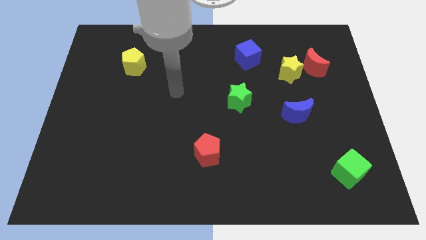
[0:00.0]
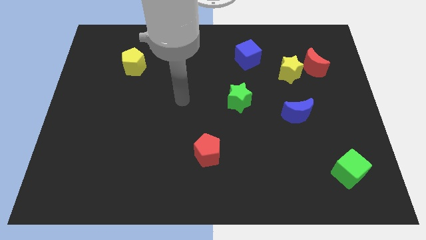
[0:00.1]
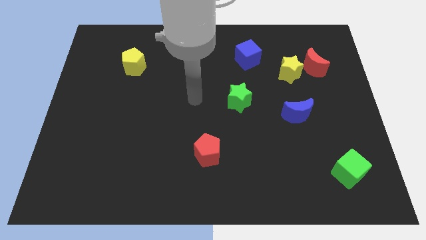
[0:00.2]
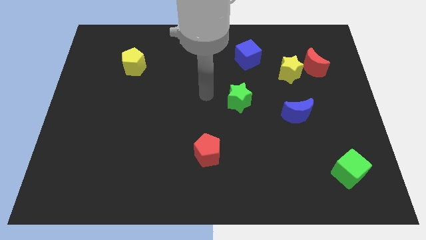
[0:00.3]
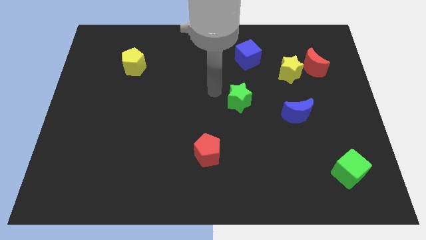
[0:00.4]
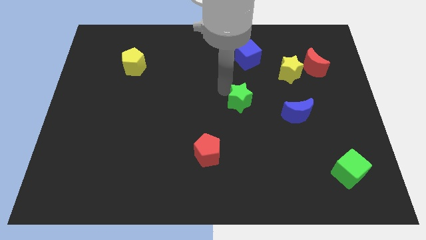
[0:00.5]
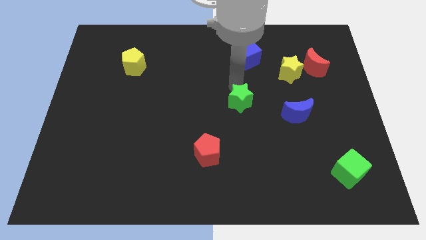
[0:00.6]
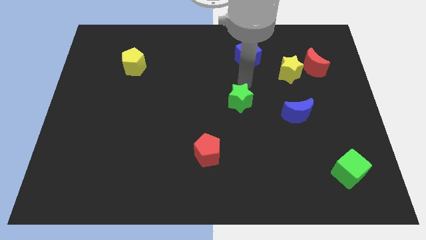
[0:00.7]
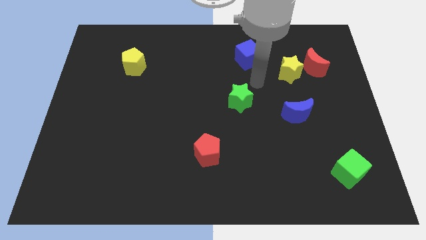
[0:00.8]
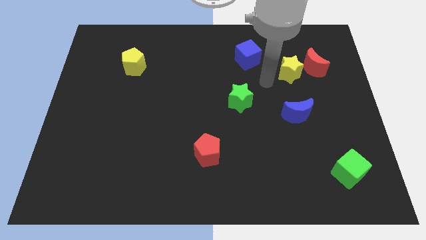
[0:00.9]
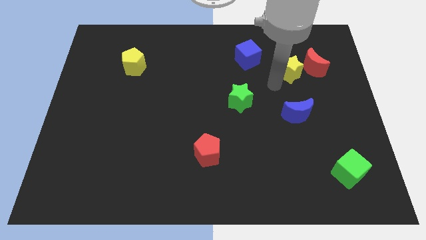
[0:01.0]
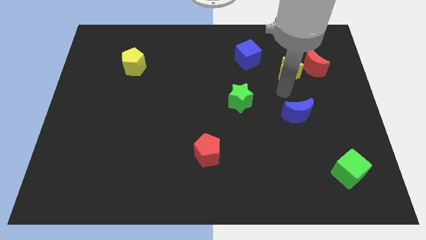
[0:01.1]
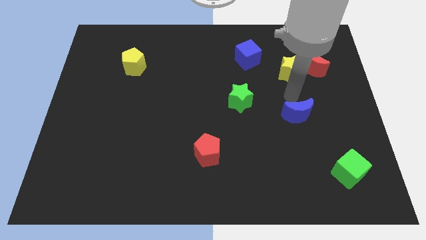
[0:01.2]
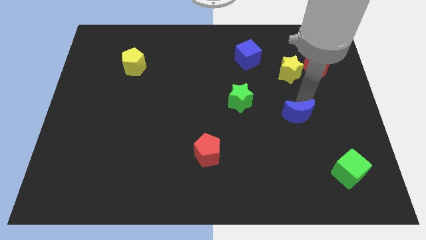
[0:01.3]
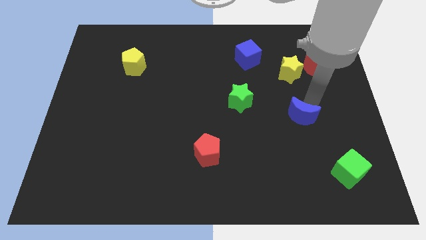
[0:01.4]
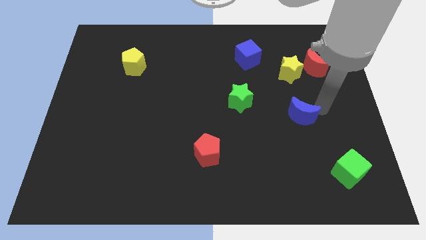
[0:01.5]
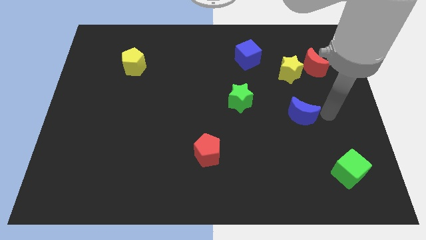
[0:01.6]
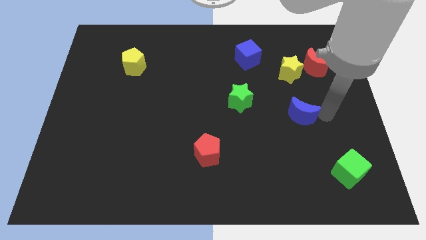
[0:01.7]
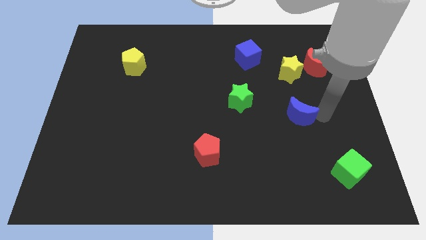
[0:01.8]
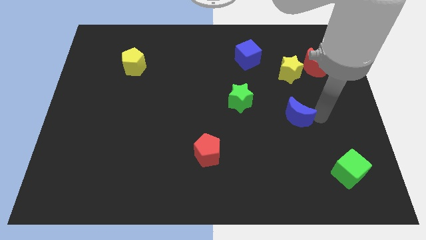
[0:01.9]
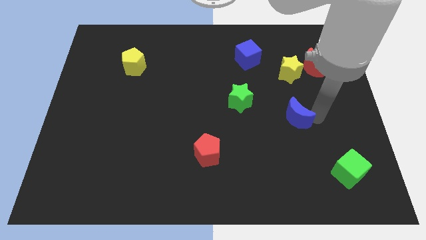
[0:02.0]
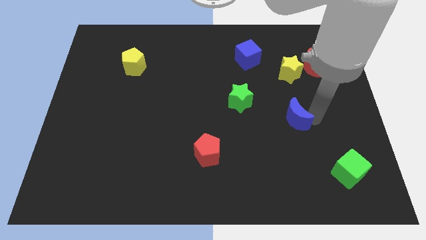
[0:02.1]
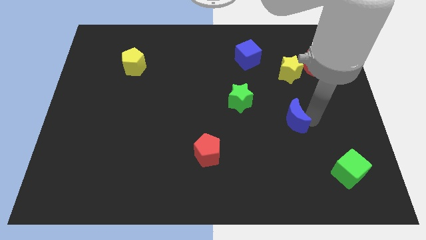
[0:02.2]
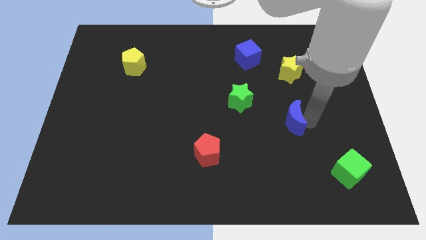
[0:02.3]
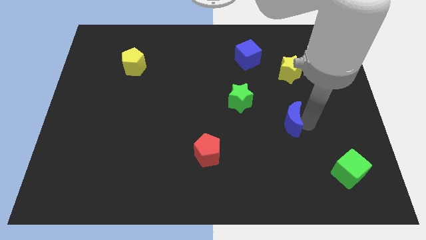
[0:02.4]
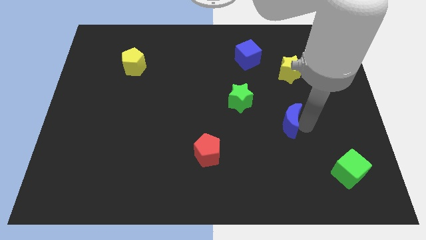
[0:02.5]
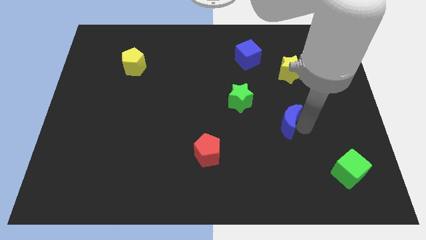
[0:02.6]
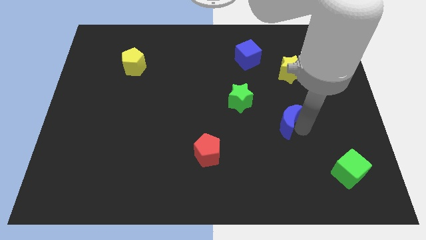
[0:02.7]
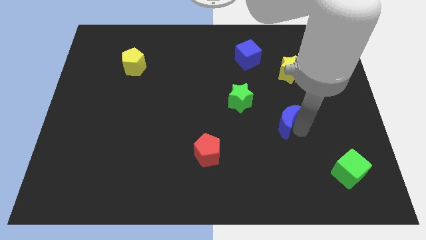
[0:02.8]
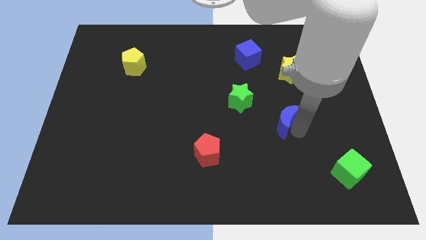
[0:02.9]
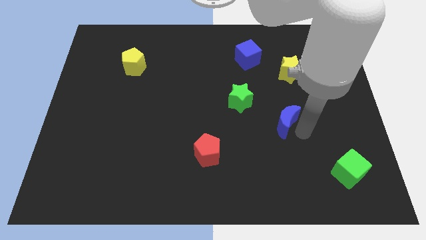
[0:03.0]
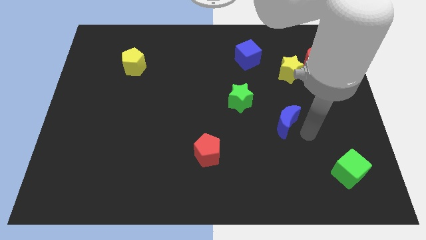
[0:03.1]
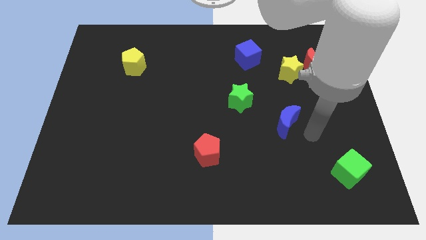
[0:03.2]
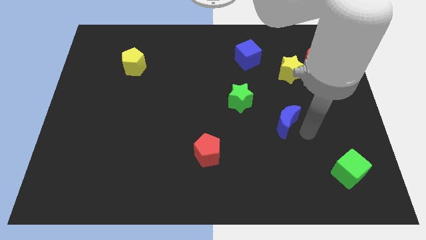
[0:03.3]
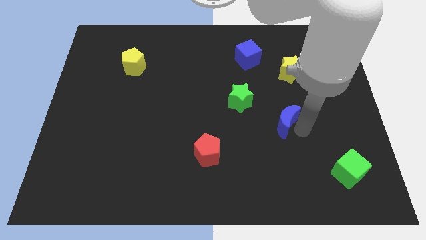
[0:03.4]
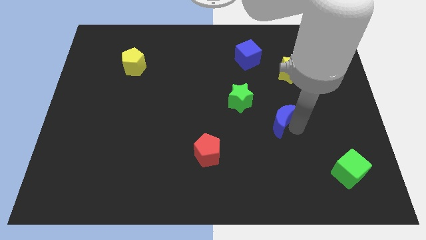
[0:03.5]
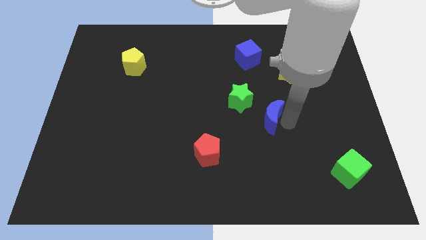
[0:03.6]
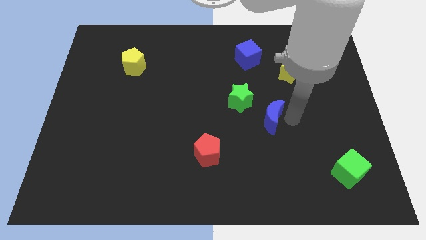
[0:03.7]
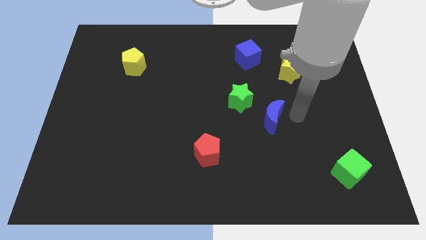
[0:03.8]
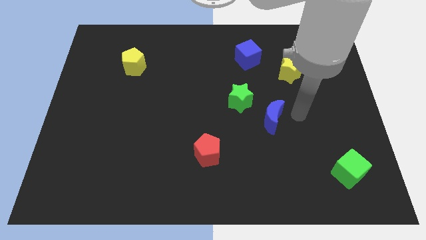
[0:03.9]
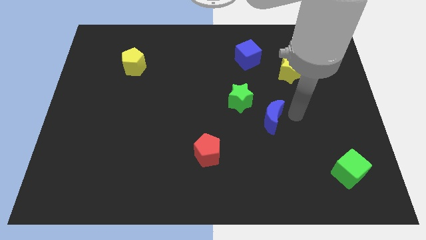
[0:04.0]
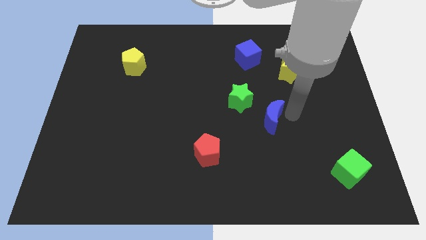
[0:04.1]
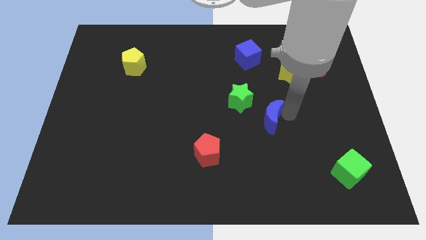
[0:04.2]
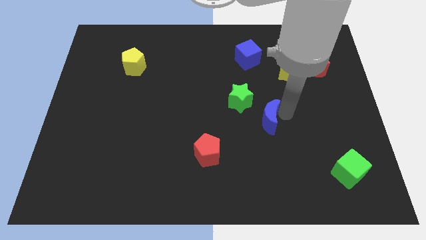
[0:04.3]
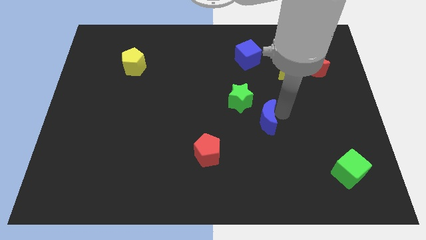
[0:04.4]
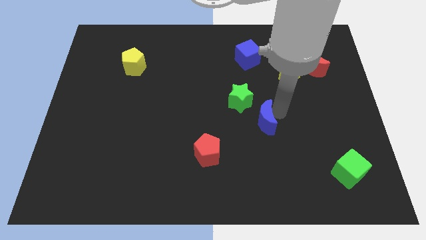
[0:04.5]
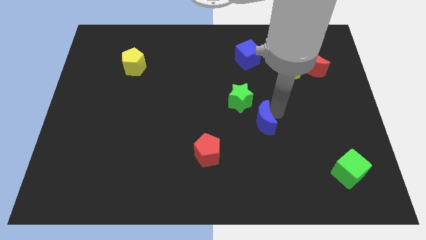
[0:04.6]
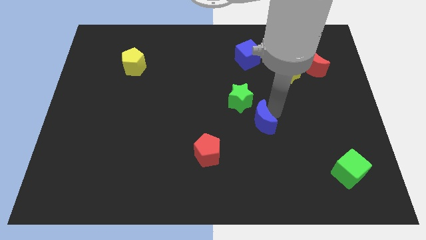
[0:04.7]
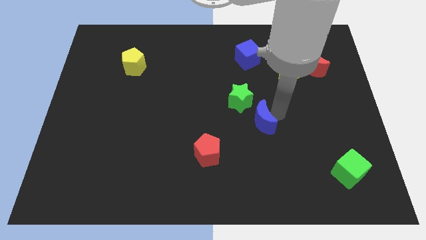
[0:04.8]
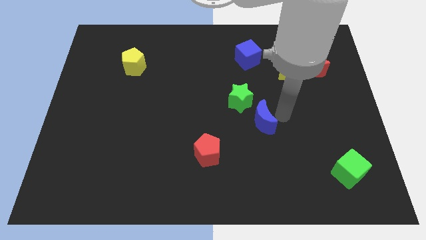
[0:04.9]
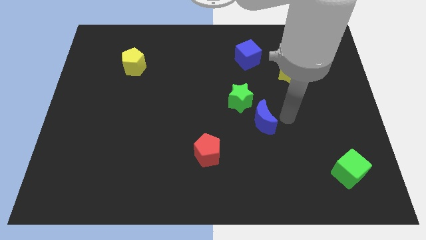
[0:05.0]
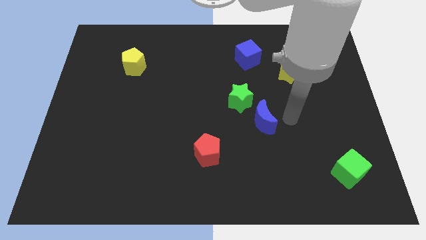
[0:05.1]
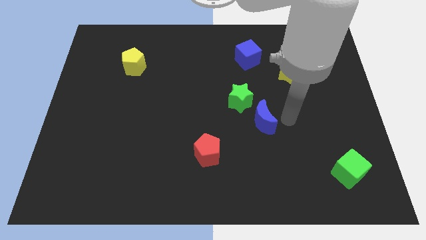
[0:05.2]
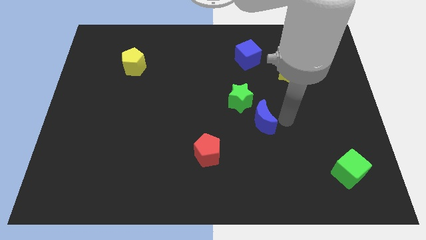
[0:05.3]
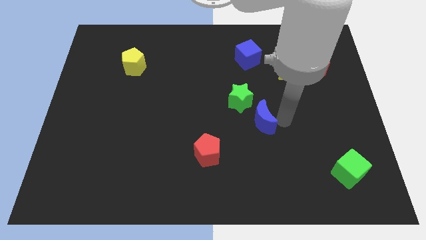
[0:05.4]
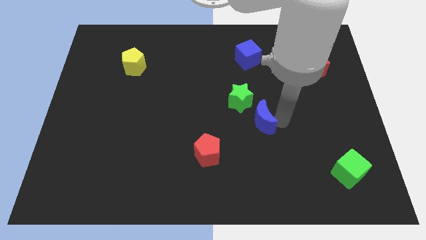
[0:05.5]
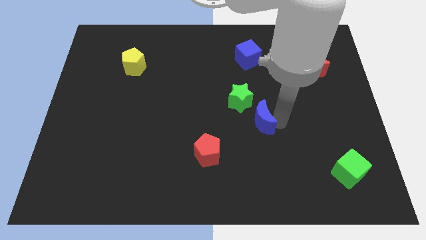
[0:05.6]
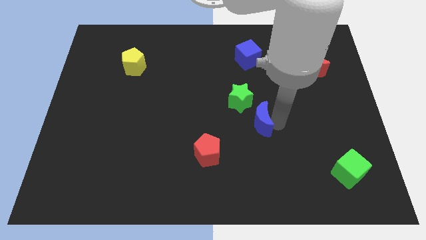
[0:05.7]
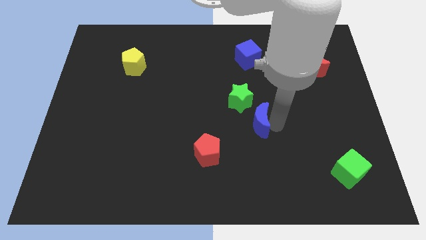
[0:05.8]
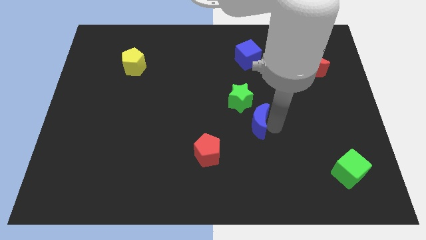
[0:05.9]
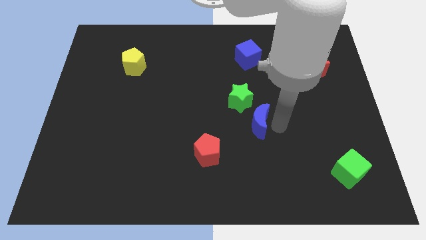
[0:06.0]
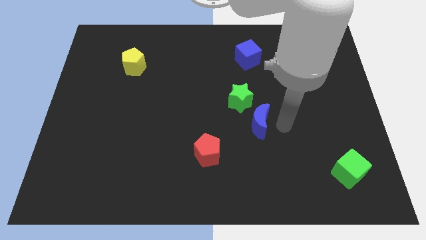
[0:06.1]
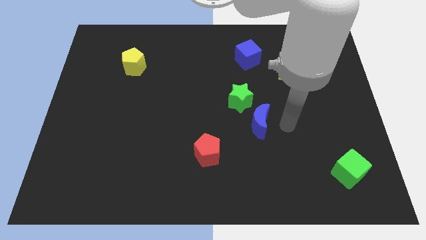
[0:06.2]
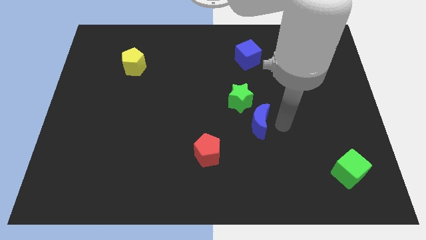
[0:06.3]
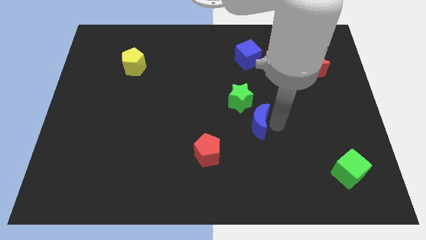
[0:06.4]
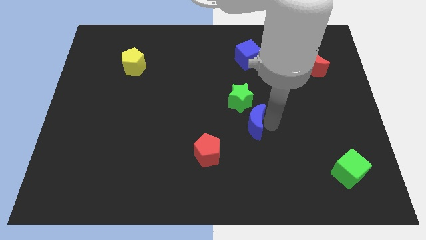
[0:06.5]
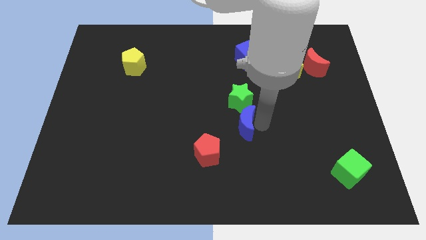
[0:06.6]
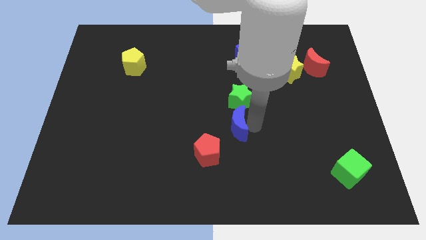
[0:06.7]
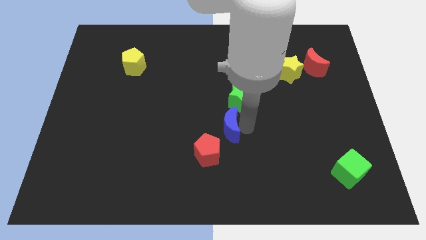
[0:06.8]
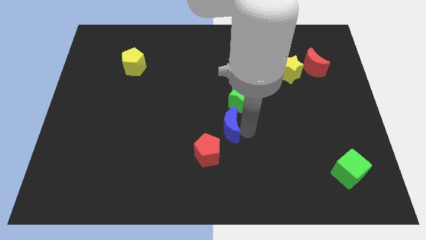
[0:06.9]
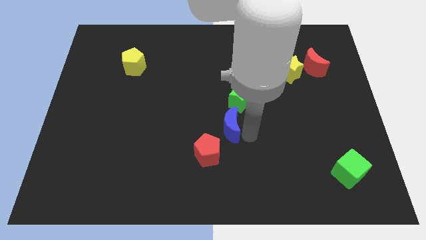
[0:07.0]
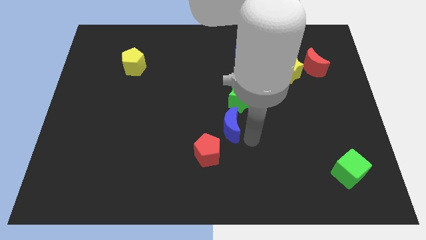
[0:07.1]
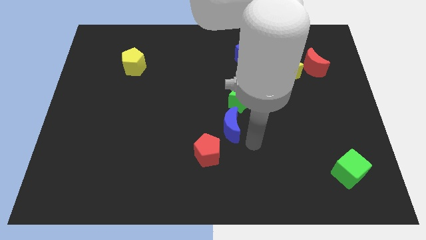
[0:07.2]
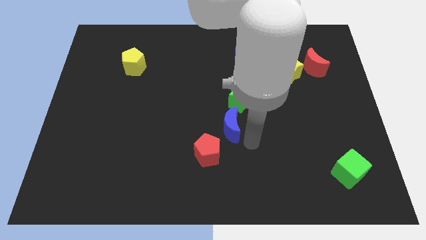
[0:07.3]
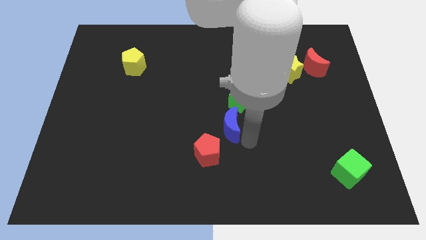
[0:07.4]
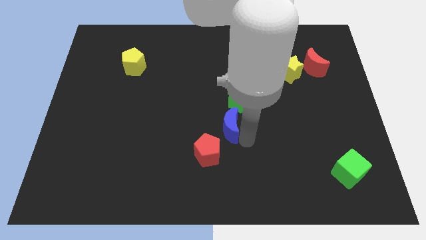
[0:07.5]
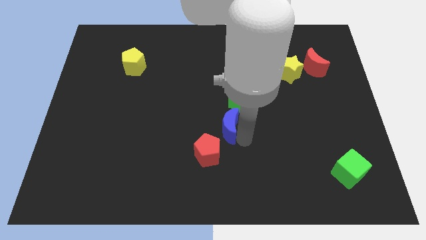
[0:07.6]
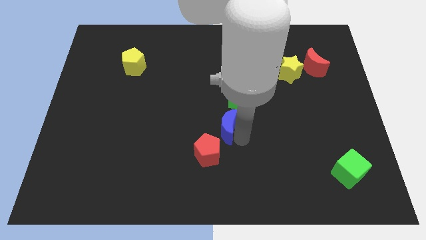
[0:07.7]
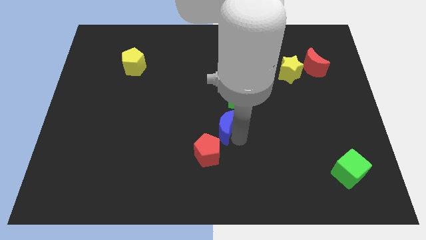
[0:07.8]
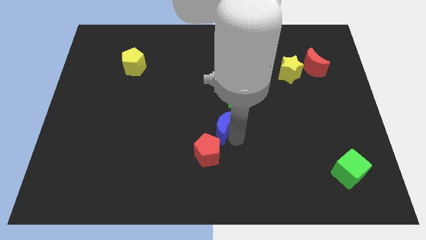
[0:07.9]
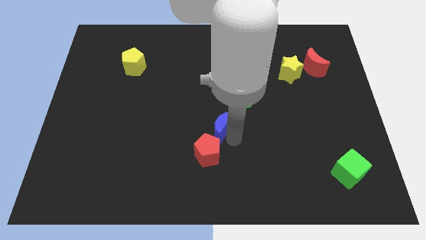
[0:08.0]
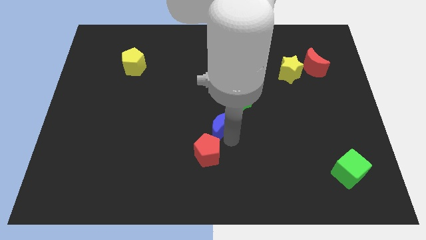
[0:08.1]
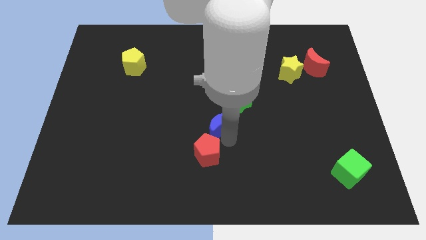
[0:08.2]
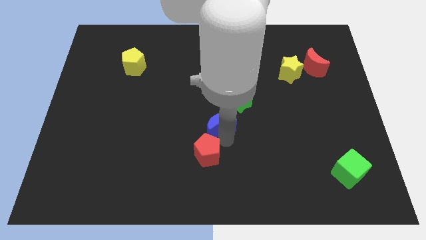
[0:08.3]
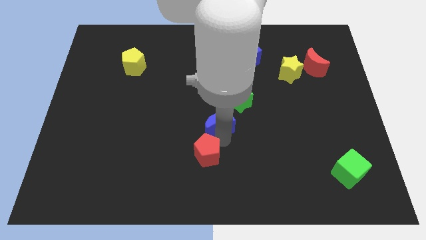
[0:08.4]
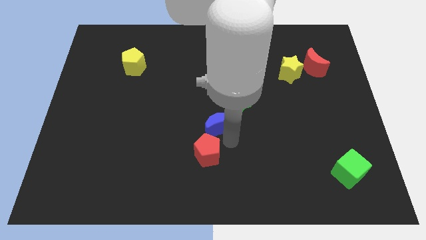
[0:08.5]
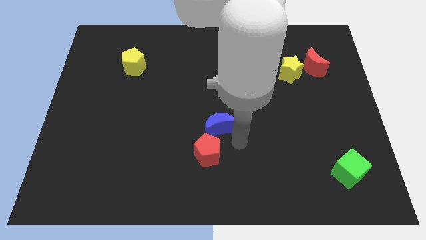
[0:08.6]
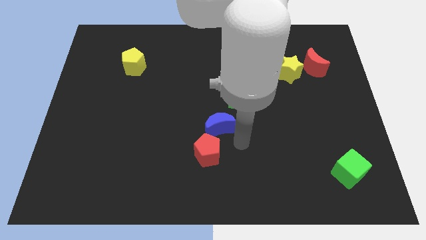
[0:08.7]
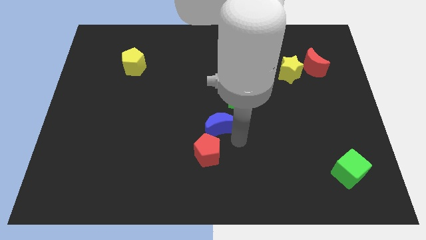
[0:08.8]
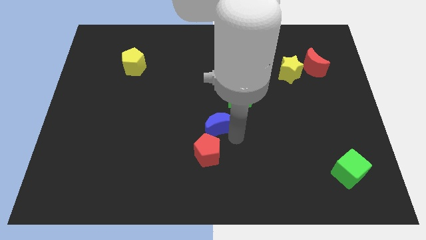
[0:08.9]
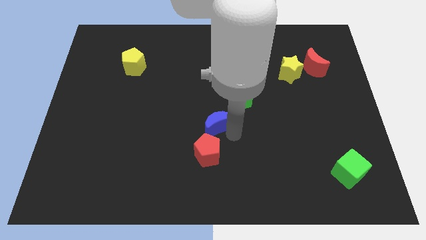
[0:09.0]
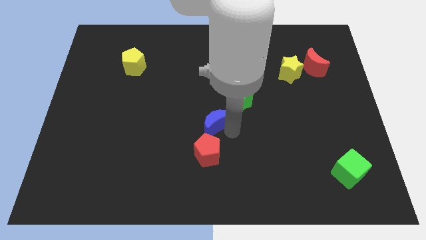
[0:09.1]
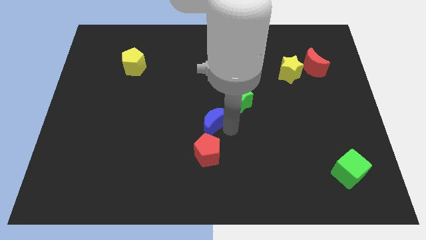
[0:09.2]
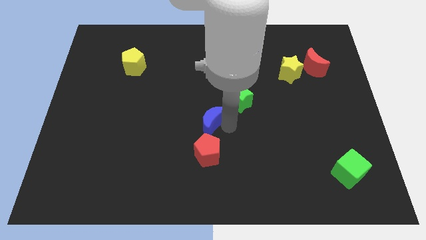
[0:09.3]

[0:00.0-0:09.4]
slide the blue moon left
